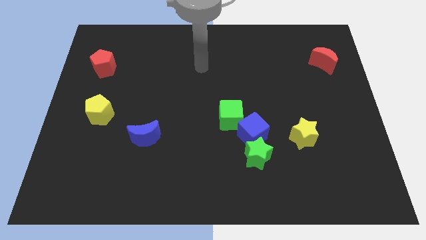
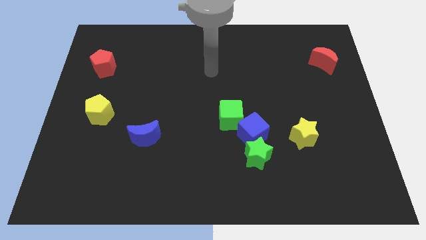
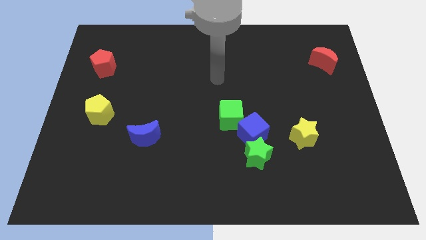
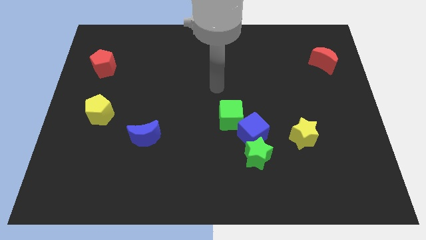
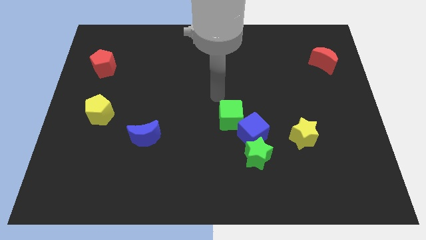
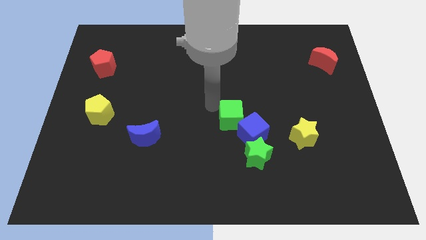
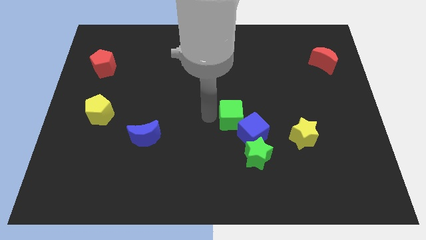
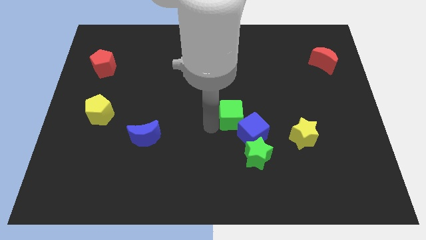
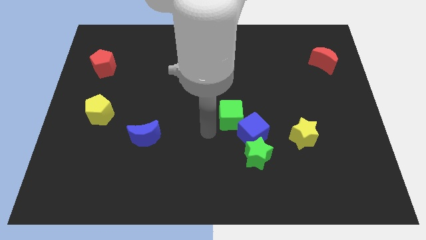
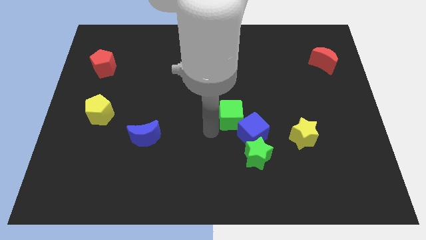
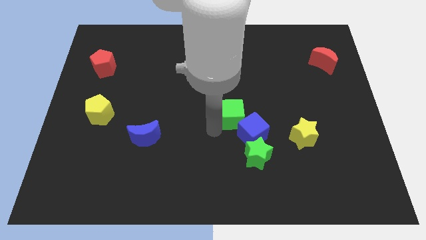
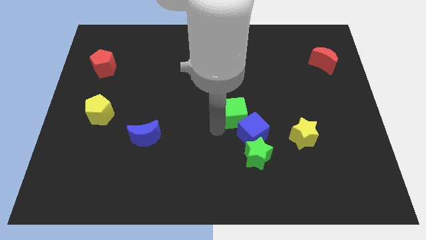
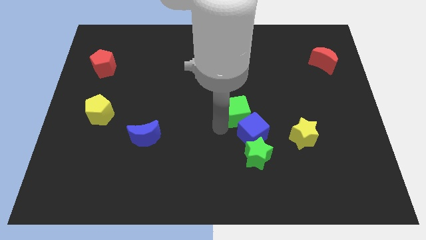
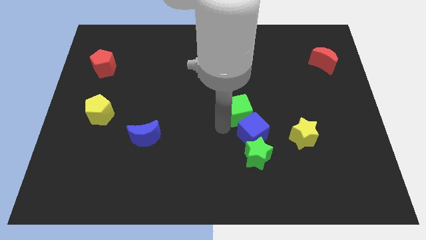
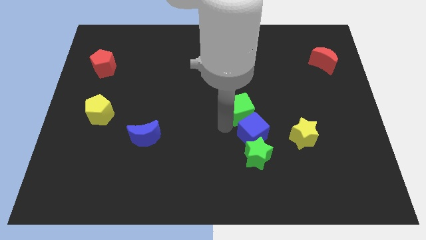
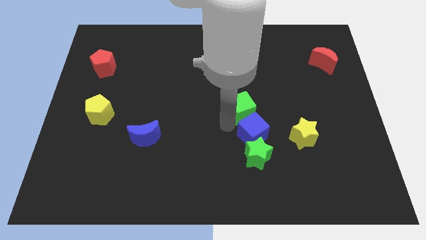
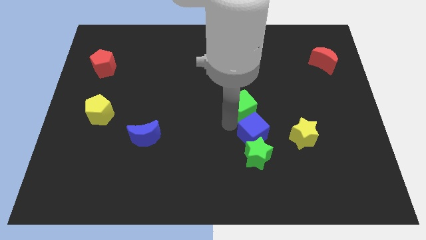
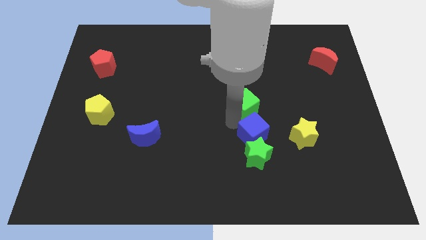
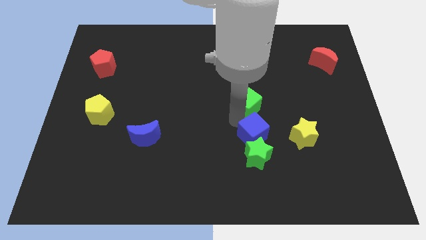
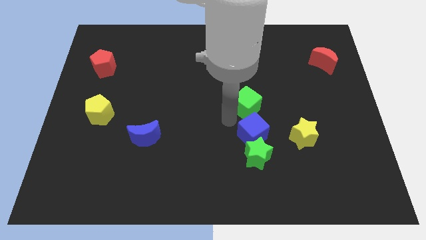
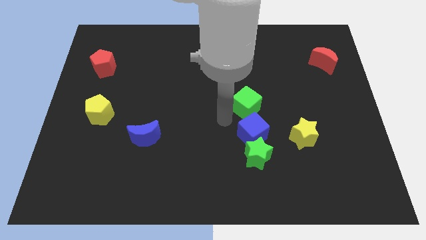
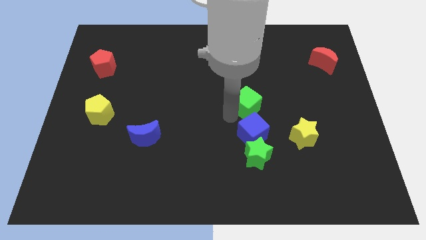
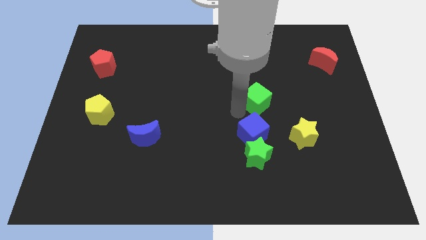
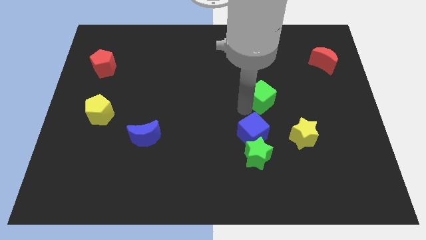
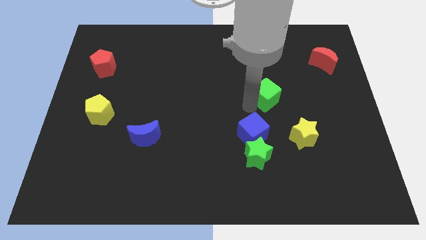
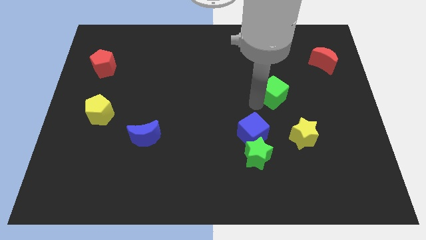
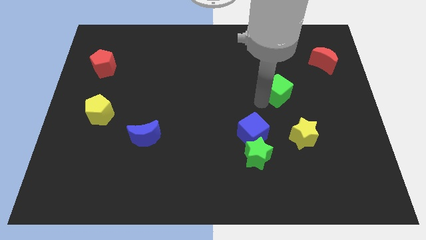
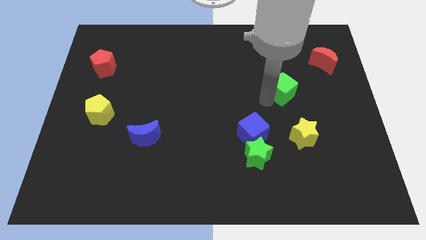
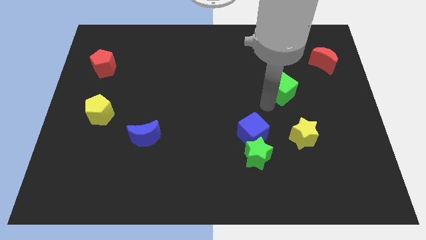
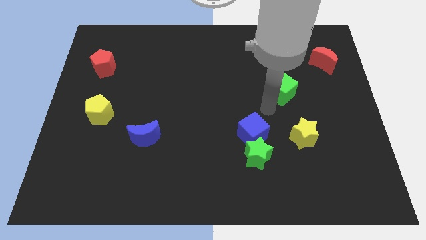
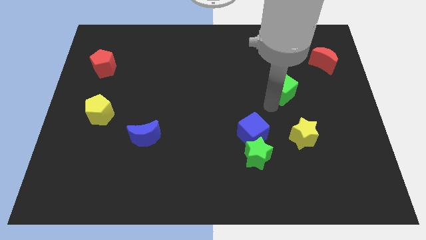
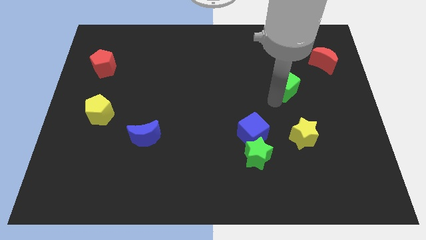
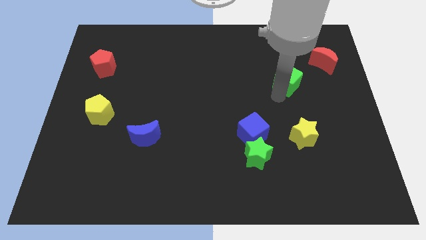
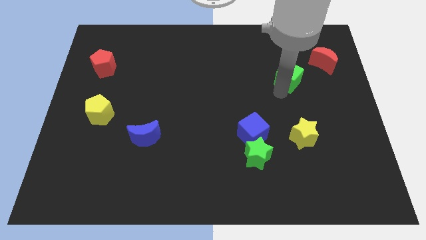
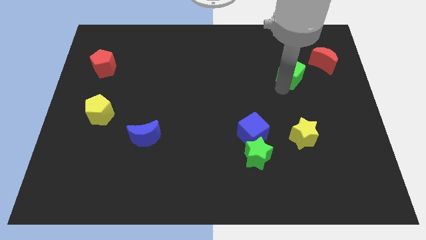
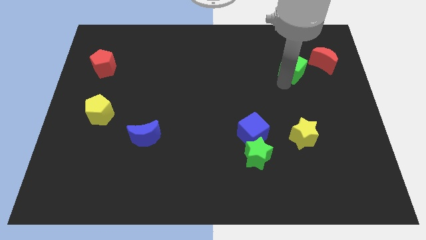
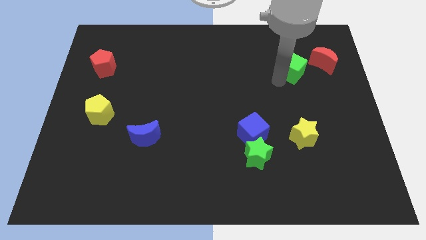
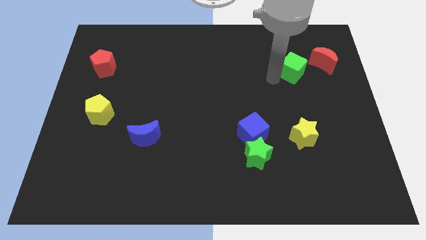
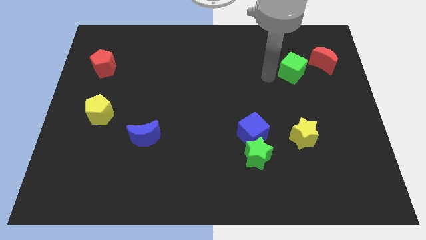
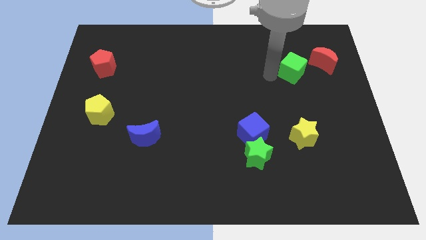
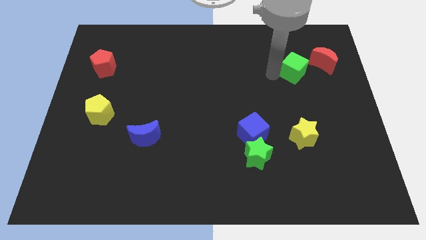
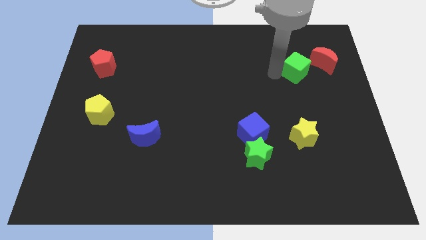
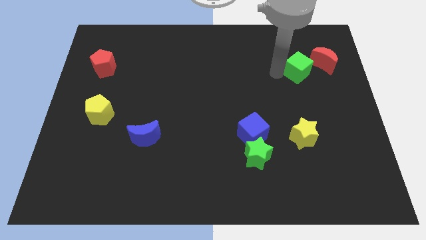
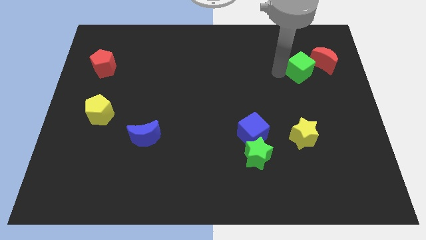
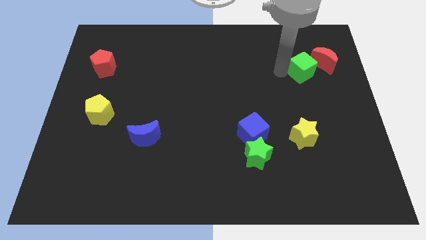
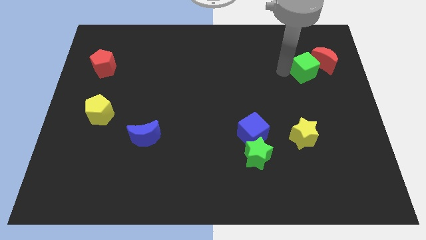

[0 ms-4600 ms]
put the green cube next to the red moon

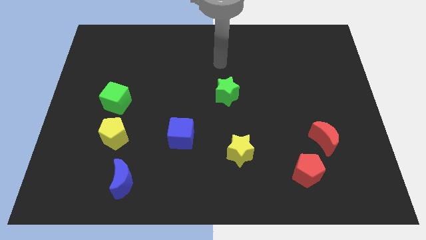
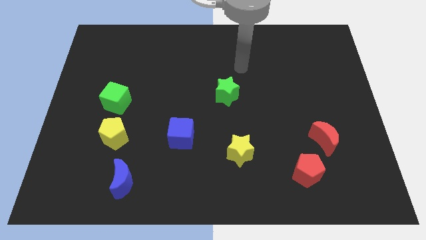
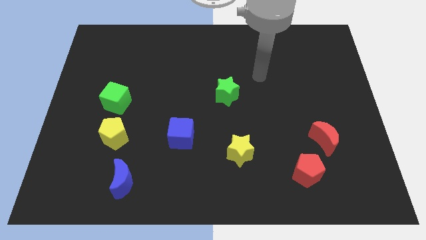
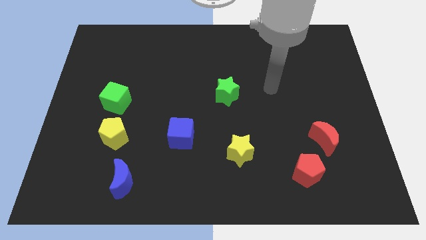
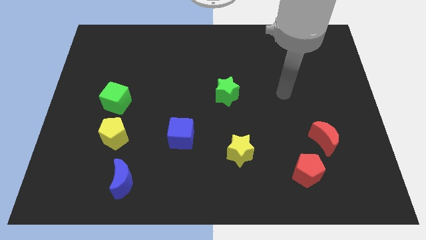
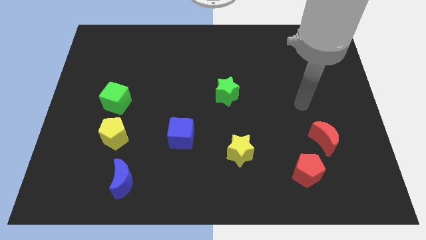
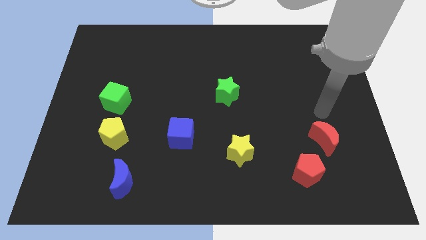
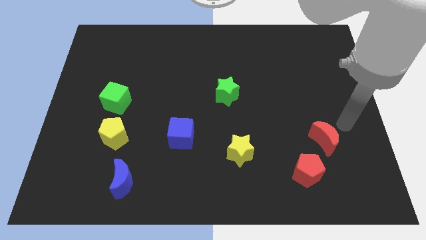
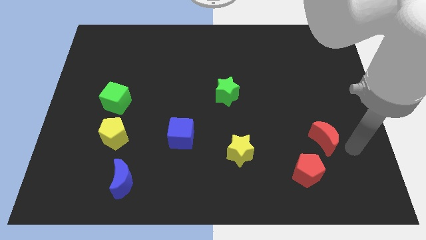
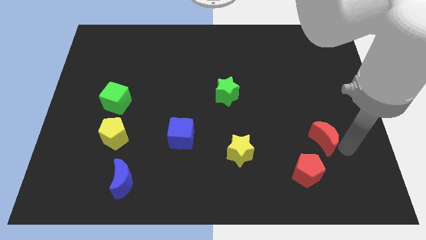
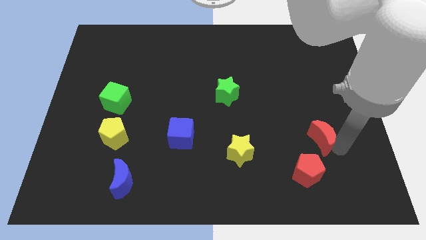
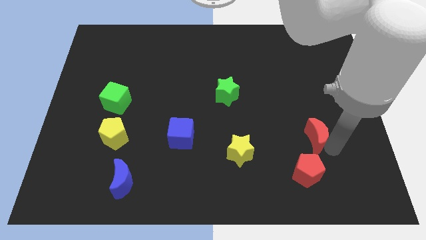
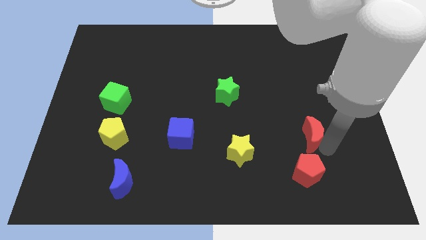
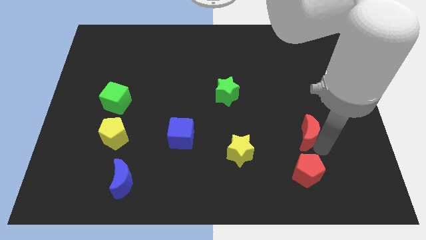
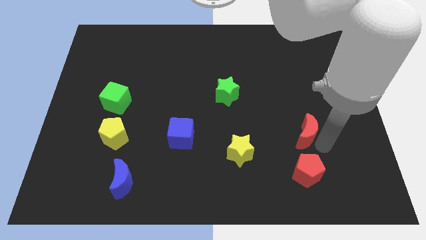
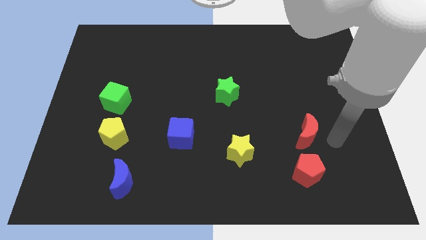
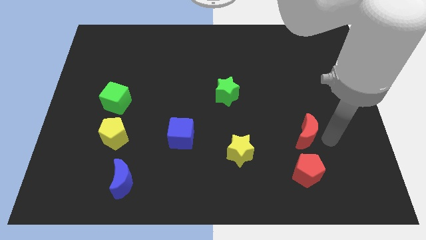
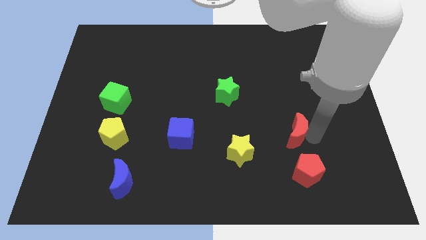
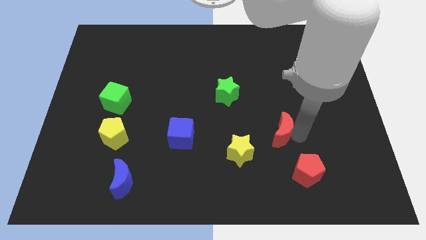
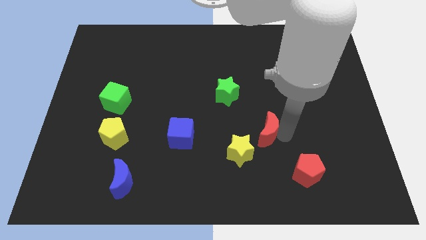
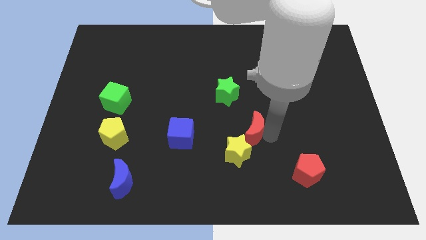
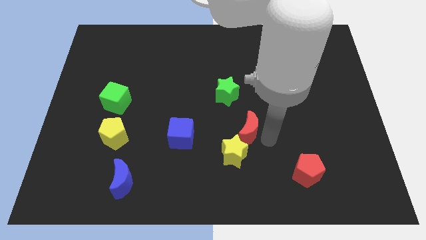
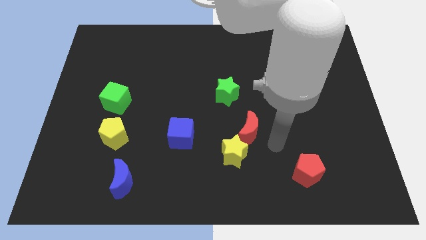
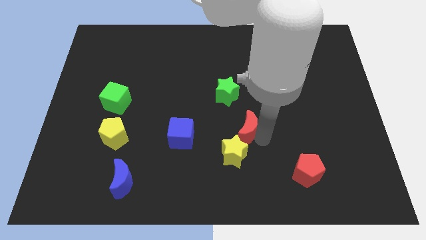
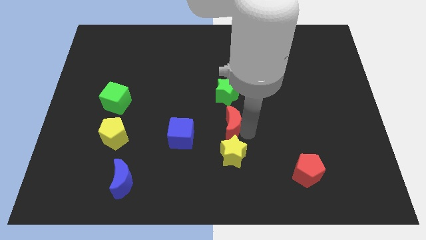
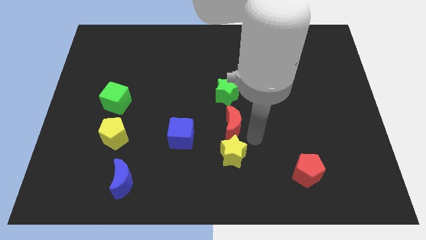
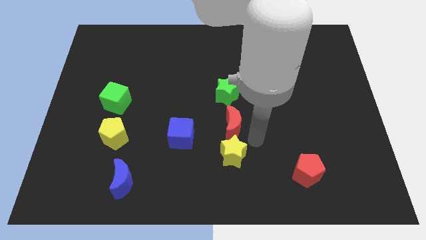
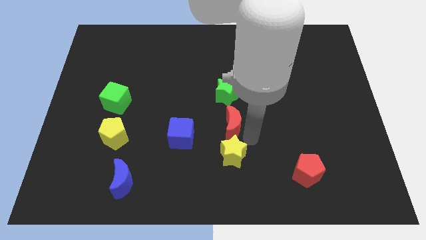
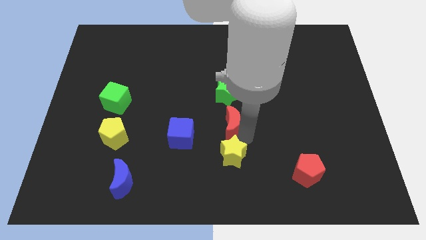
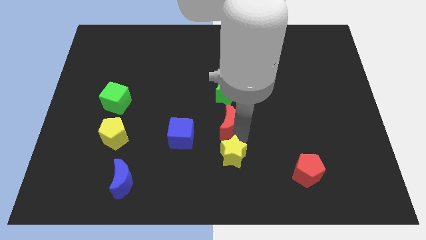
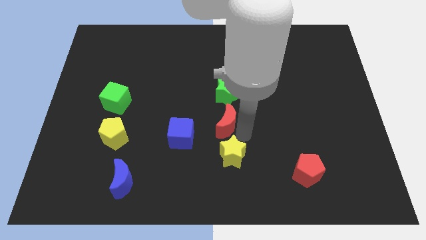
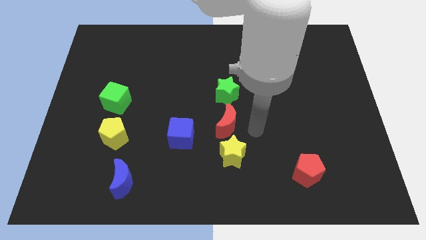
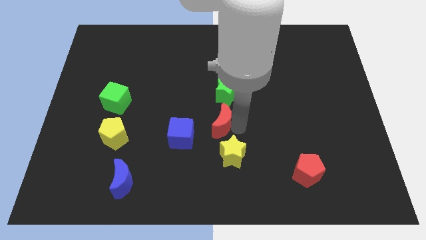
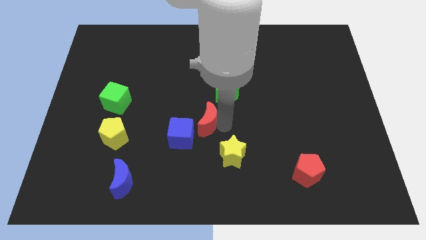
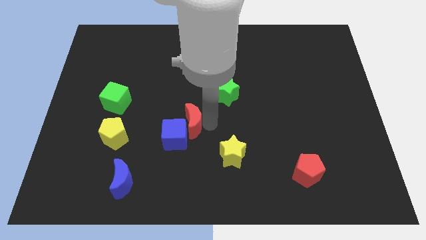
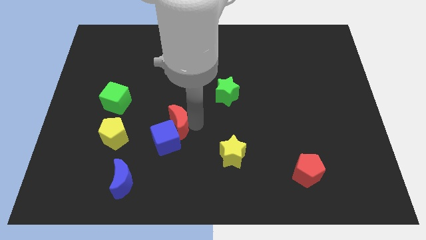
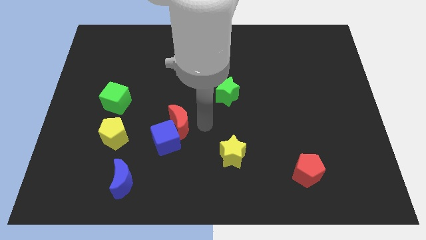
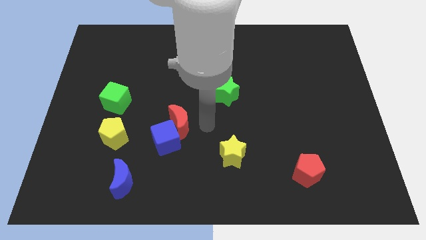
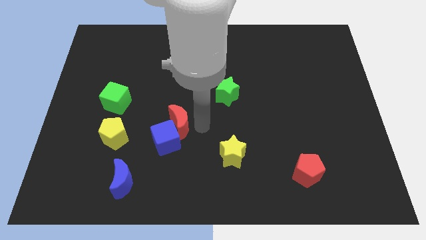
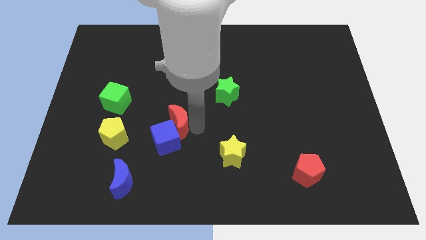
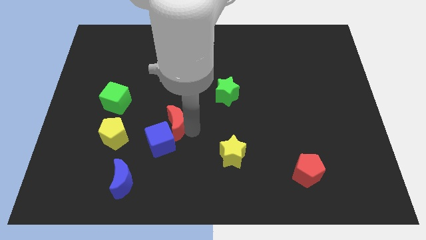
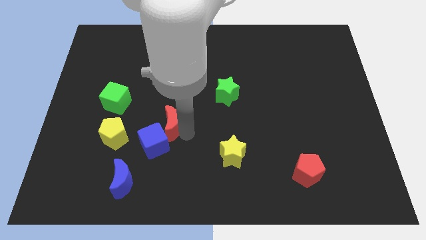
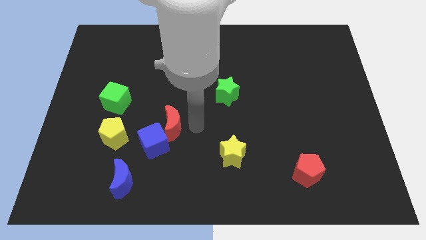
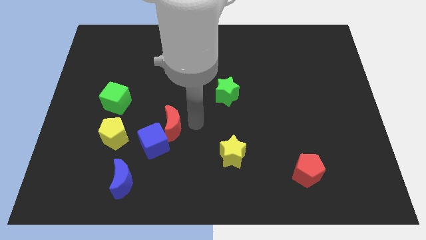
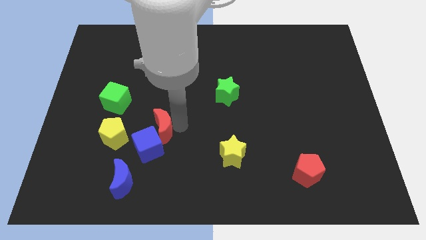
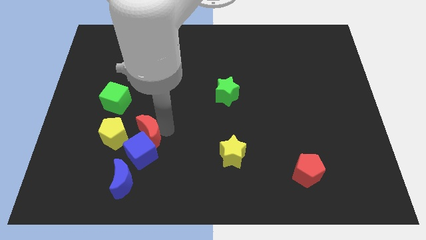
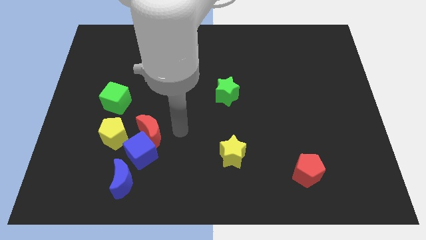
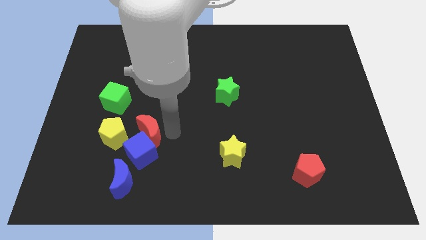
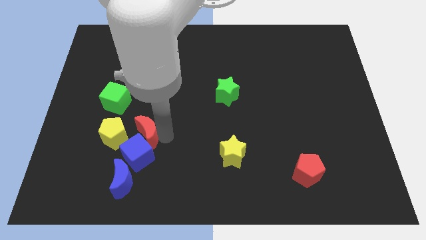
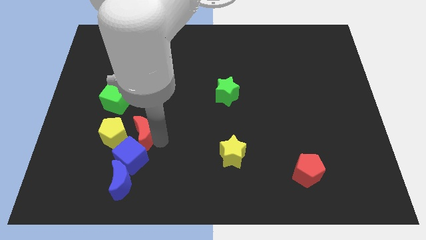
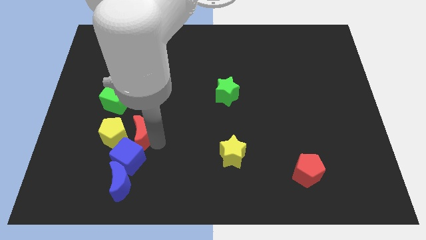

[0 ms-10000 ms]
push the red moon to the yellow pentagon
